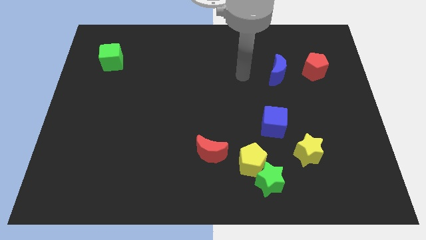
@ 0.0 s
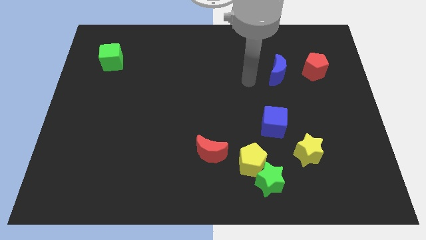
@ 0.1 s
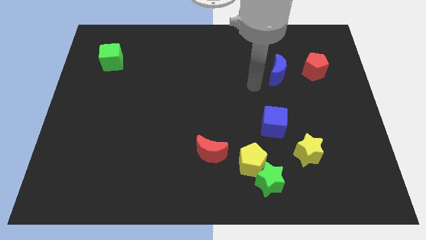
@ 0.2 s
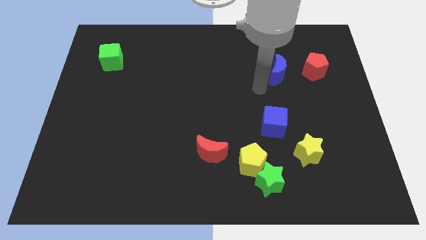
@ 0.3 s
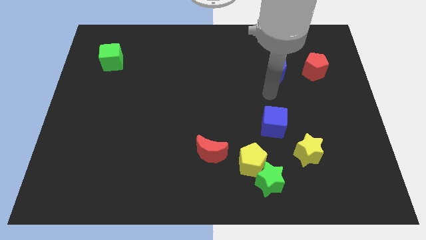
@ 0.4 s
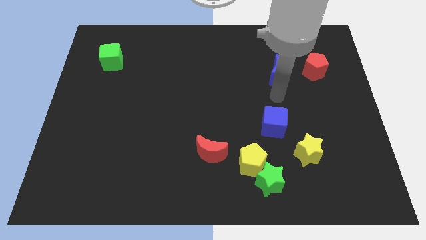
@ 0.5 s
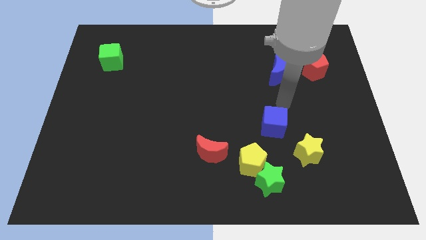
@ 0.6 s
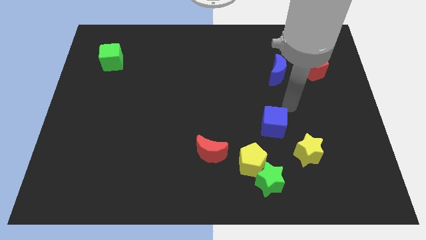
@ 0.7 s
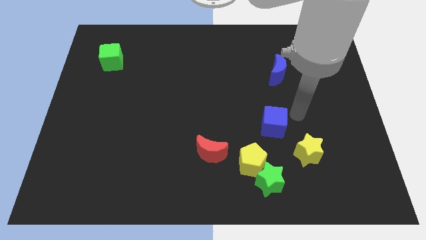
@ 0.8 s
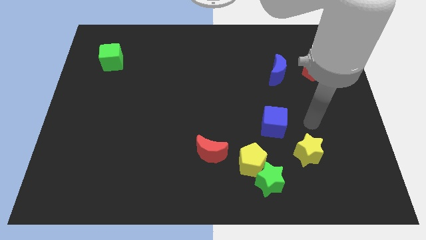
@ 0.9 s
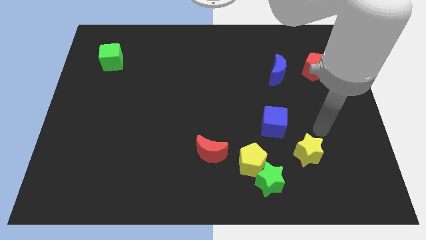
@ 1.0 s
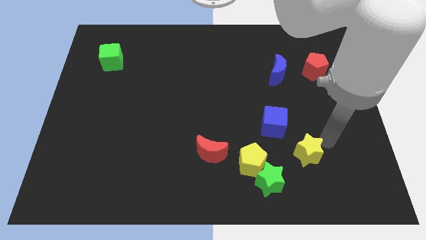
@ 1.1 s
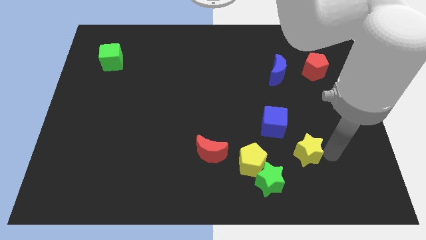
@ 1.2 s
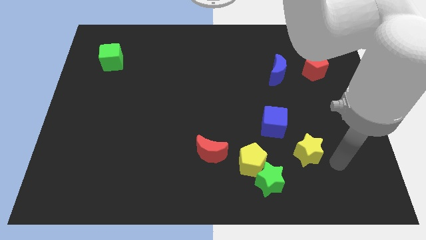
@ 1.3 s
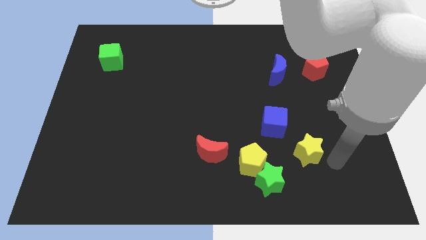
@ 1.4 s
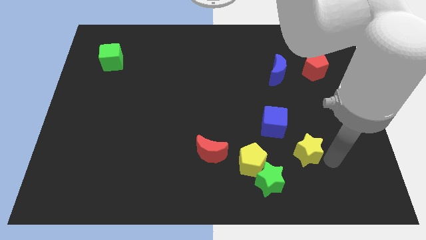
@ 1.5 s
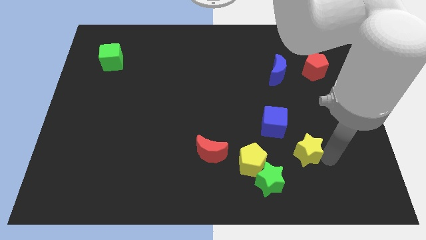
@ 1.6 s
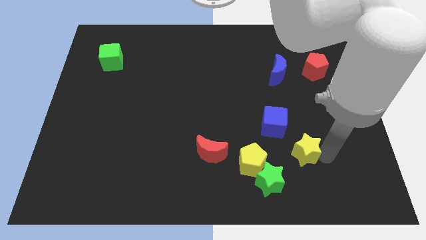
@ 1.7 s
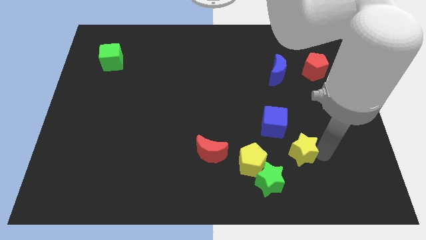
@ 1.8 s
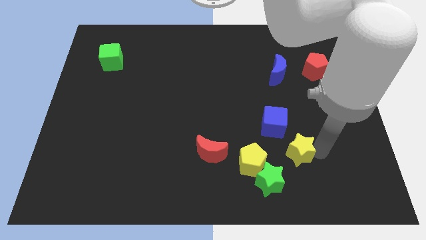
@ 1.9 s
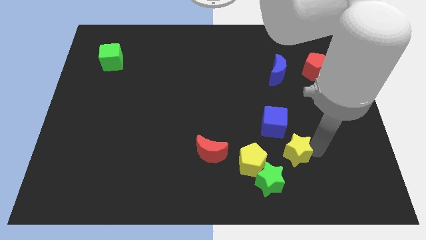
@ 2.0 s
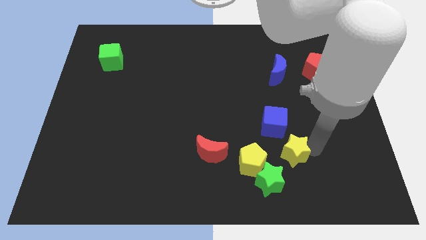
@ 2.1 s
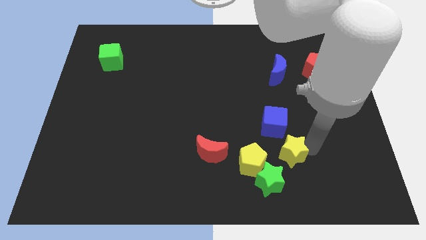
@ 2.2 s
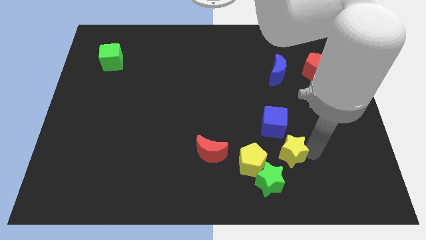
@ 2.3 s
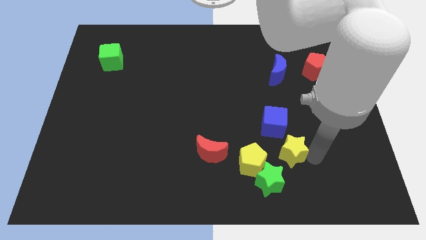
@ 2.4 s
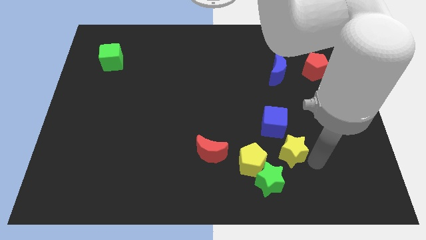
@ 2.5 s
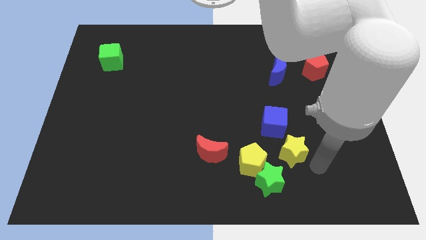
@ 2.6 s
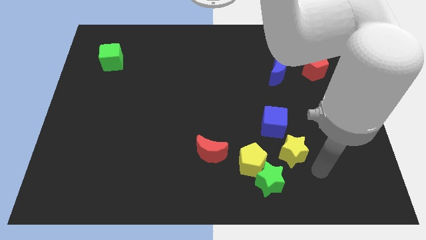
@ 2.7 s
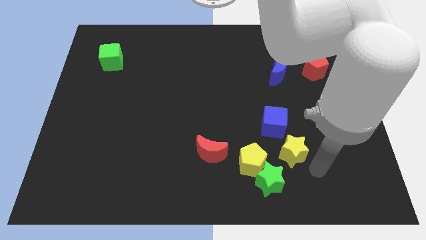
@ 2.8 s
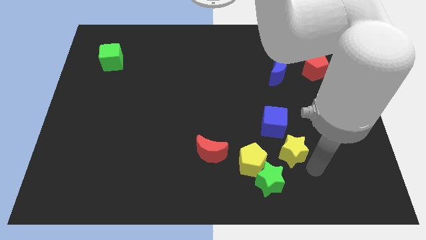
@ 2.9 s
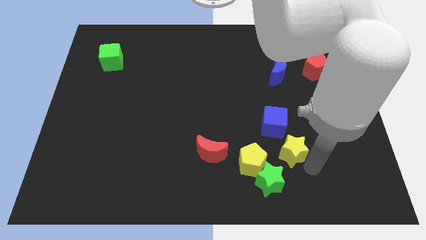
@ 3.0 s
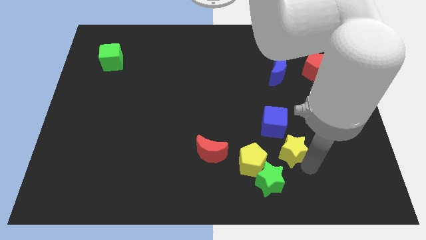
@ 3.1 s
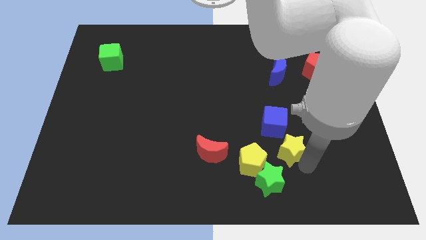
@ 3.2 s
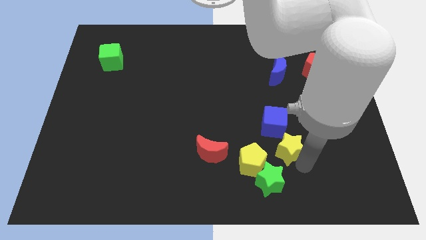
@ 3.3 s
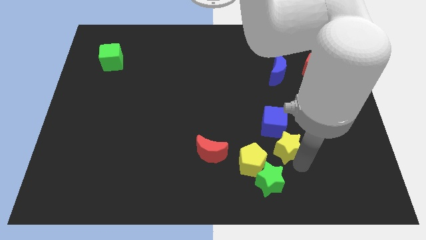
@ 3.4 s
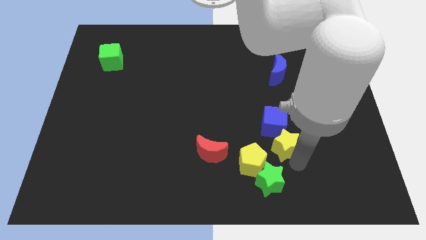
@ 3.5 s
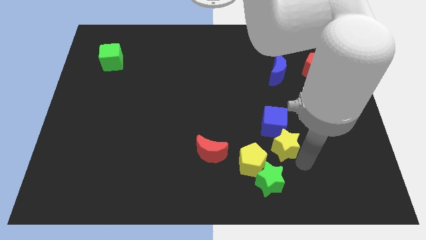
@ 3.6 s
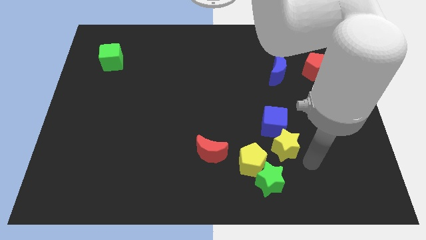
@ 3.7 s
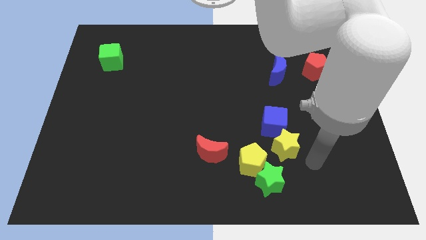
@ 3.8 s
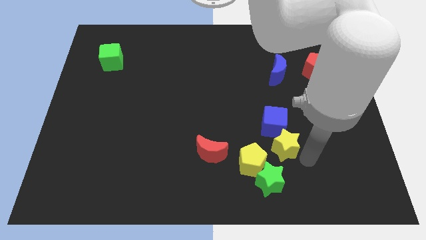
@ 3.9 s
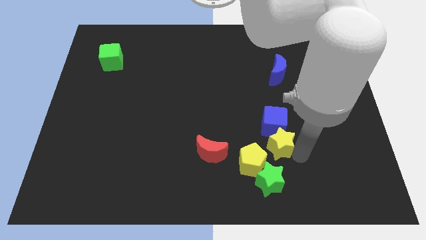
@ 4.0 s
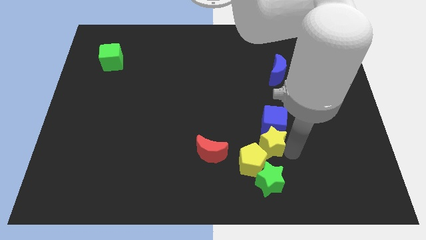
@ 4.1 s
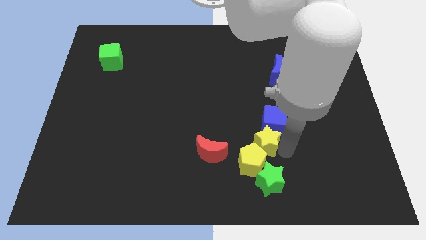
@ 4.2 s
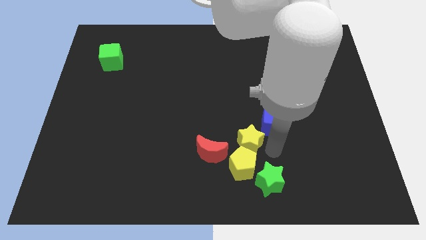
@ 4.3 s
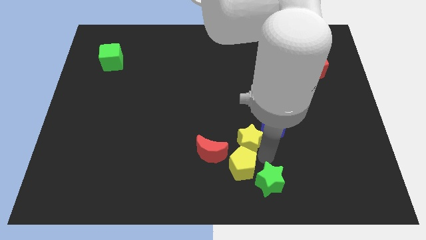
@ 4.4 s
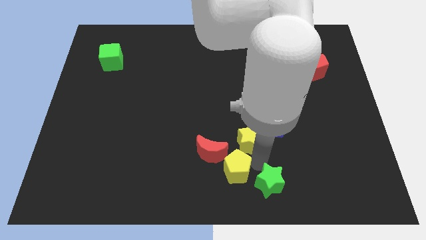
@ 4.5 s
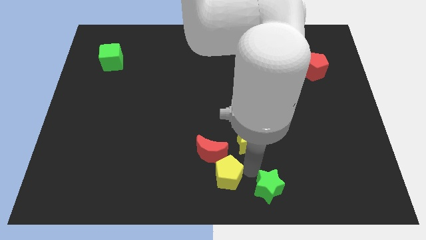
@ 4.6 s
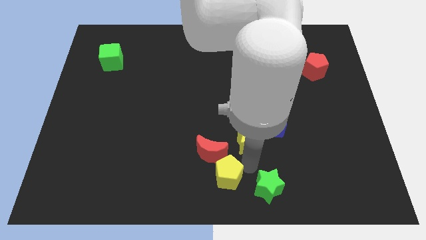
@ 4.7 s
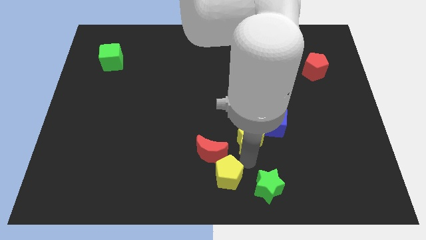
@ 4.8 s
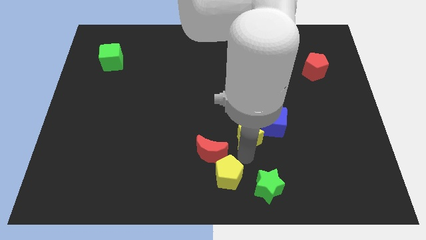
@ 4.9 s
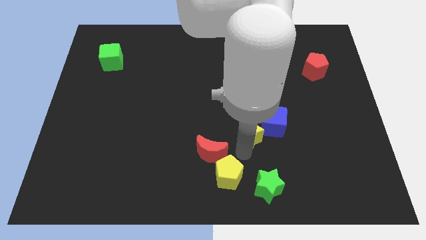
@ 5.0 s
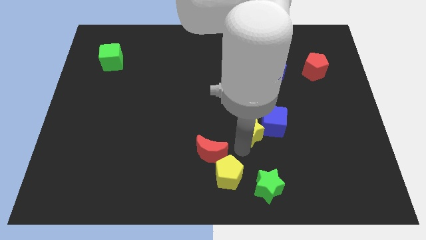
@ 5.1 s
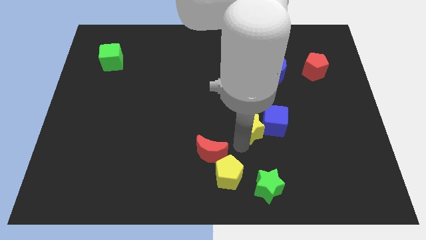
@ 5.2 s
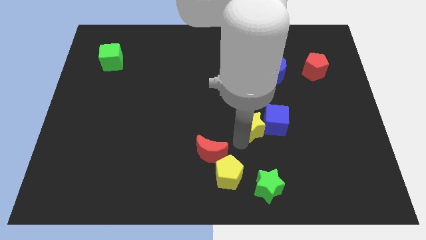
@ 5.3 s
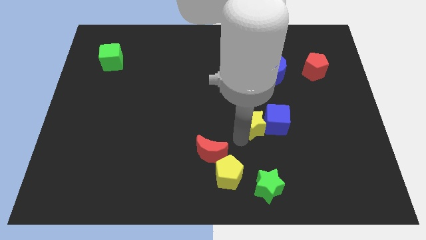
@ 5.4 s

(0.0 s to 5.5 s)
slide the yellow star to the top left of the blue cube

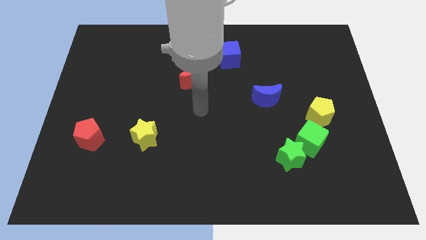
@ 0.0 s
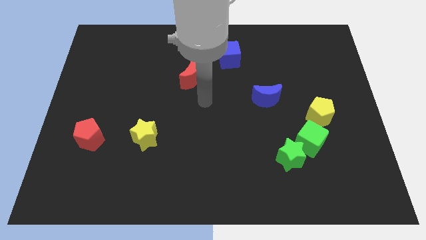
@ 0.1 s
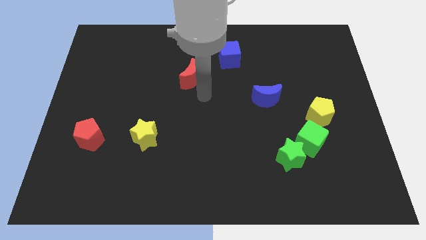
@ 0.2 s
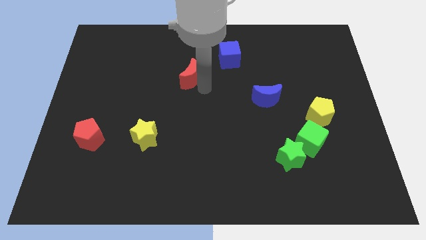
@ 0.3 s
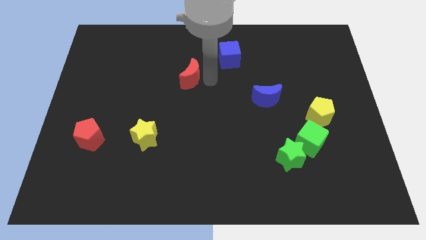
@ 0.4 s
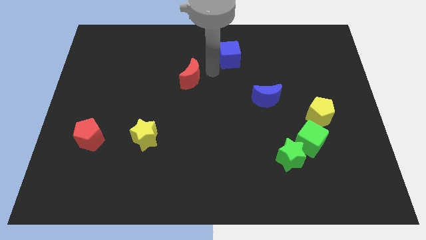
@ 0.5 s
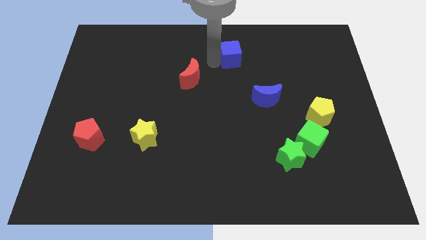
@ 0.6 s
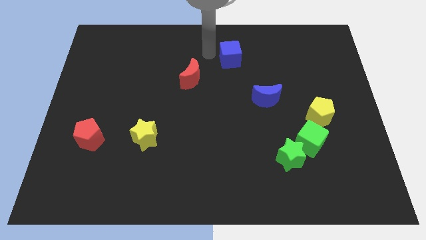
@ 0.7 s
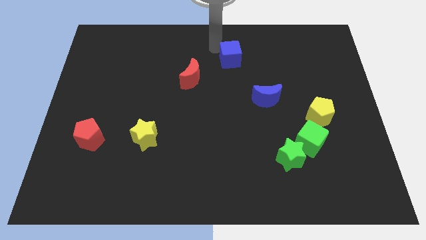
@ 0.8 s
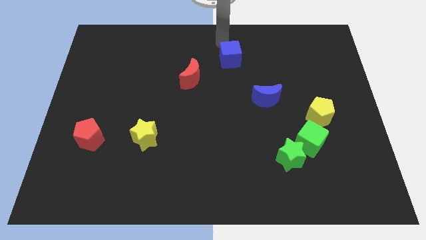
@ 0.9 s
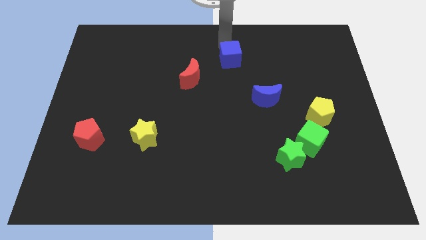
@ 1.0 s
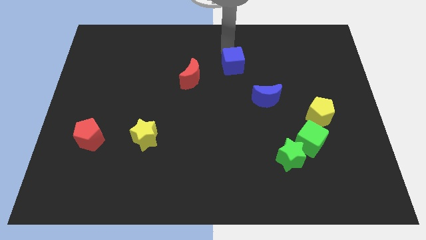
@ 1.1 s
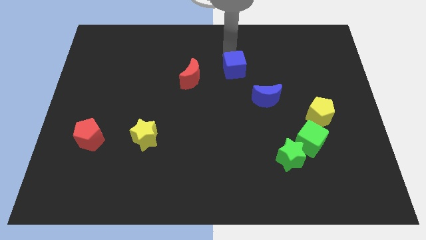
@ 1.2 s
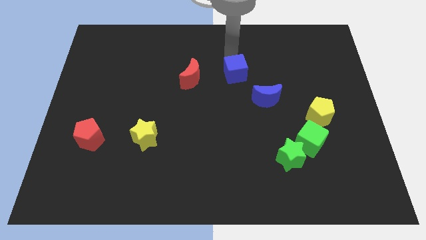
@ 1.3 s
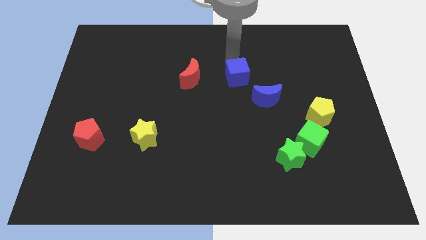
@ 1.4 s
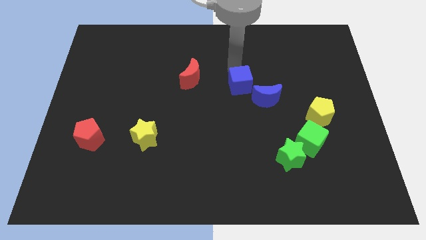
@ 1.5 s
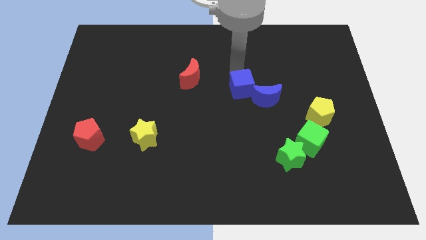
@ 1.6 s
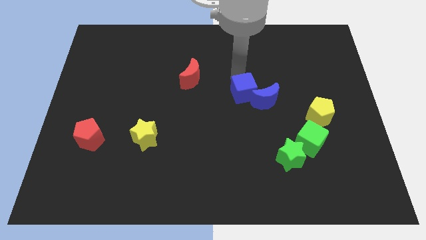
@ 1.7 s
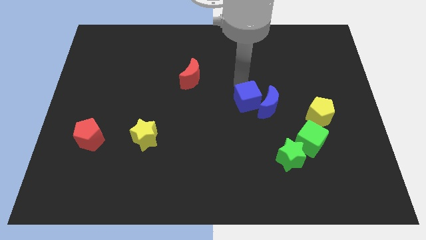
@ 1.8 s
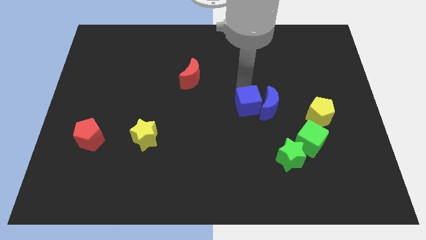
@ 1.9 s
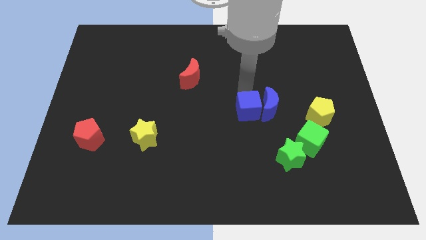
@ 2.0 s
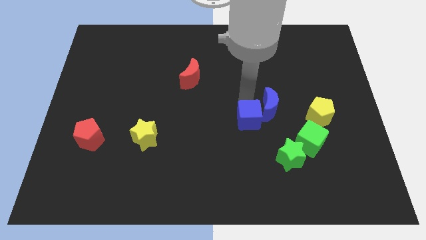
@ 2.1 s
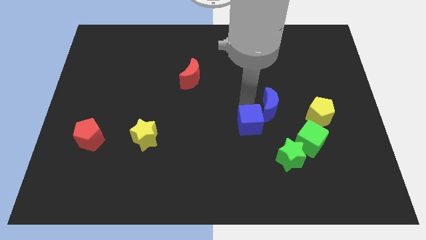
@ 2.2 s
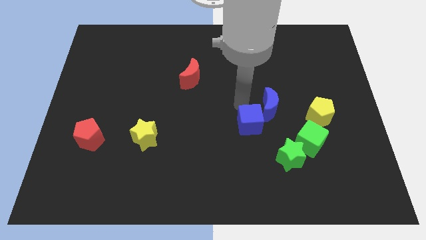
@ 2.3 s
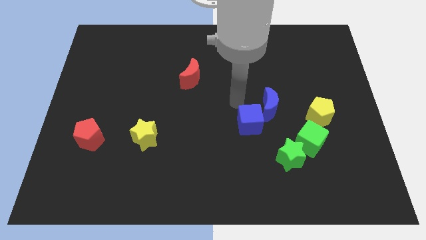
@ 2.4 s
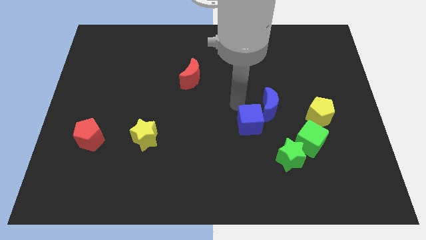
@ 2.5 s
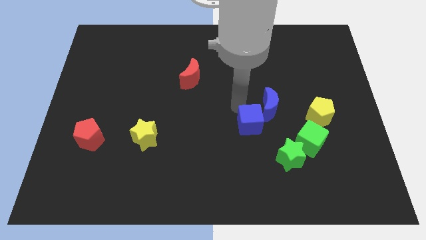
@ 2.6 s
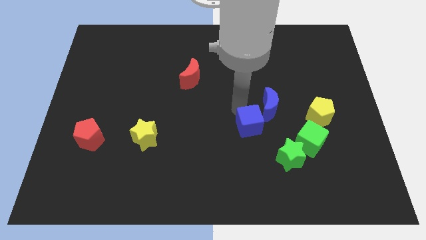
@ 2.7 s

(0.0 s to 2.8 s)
push the blue cube just left of the green cube
